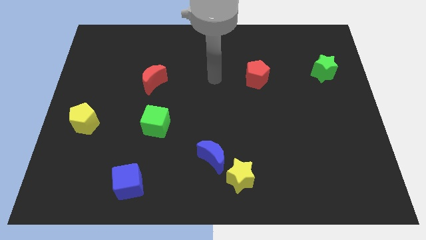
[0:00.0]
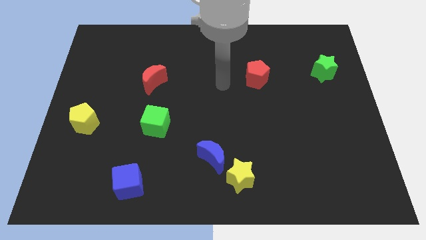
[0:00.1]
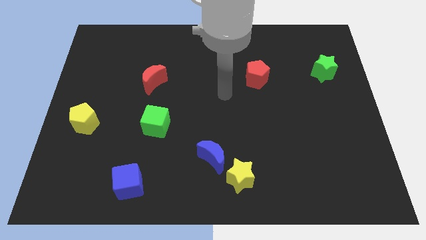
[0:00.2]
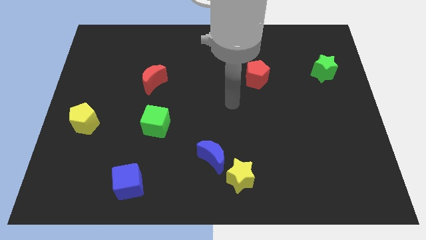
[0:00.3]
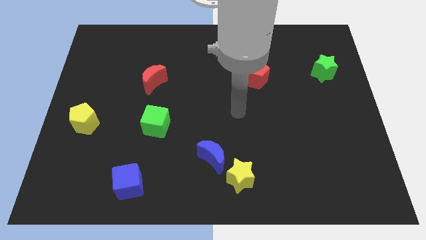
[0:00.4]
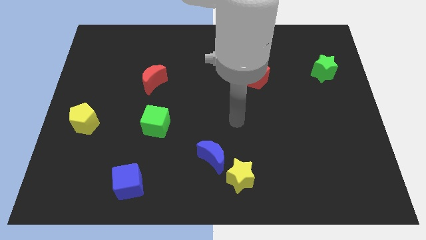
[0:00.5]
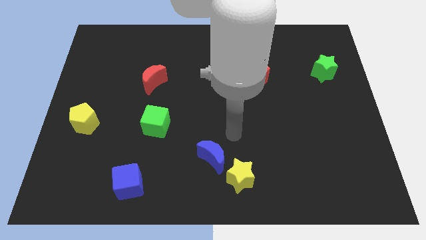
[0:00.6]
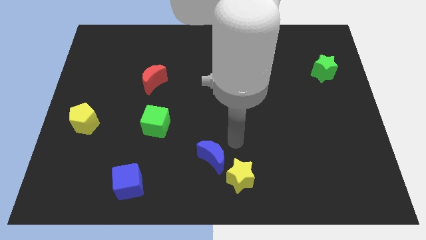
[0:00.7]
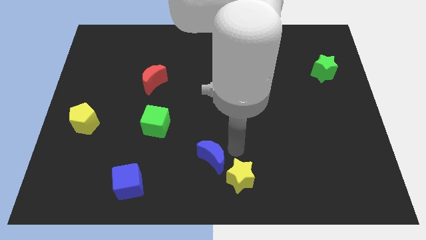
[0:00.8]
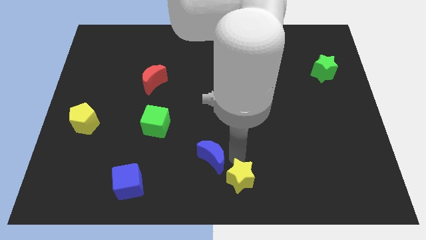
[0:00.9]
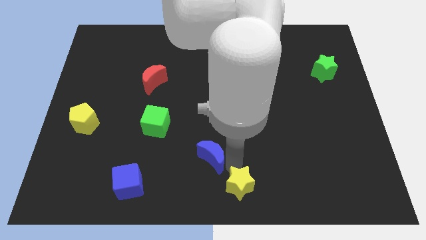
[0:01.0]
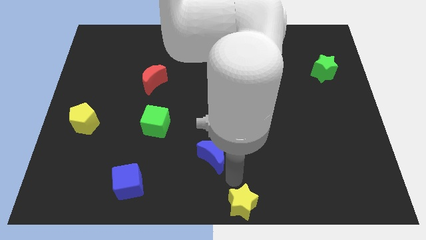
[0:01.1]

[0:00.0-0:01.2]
move the blue moon away from the yellow star

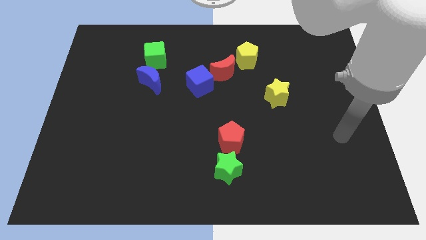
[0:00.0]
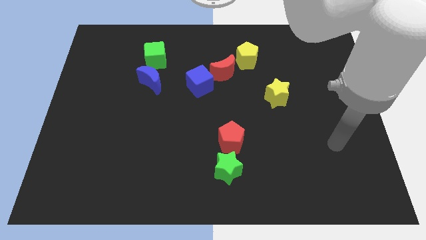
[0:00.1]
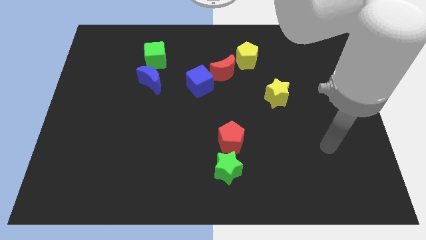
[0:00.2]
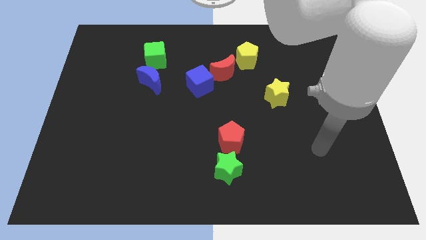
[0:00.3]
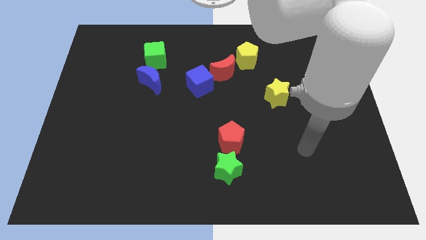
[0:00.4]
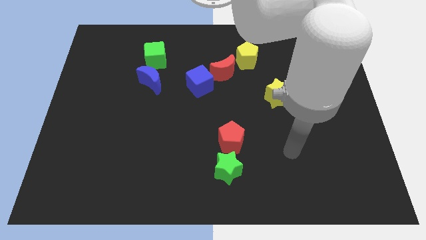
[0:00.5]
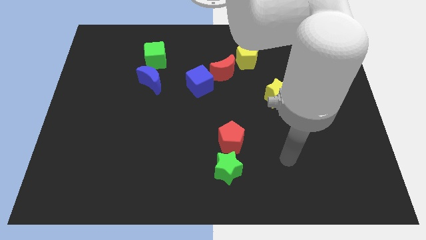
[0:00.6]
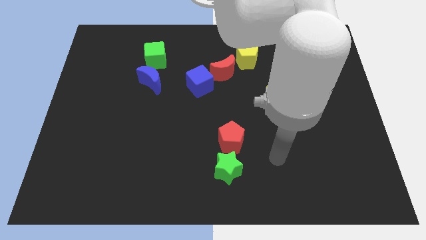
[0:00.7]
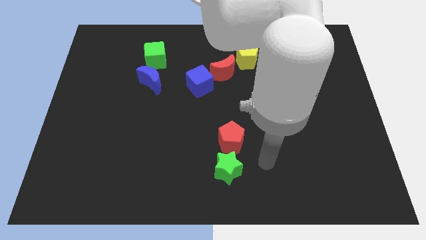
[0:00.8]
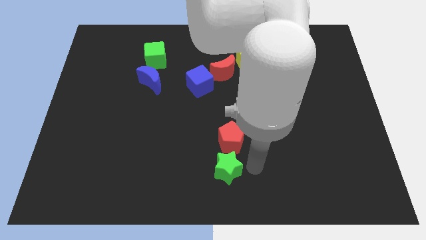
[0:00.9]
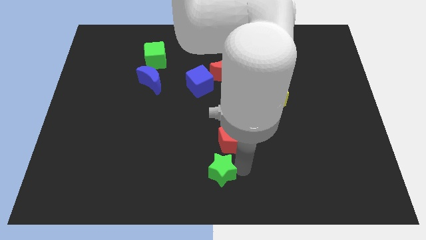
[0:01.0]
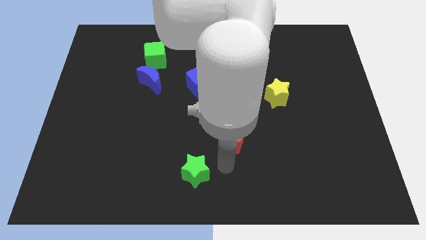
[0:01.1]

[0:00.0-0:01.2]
pull the red pentagon apart from the green star

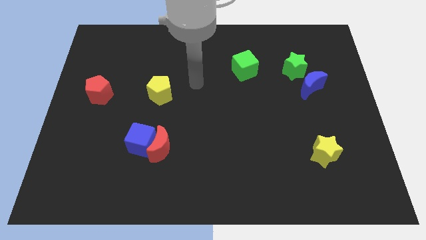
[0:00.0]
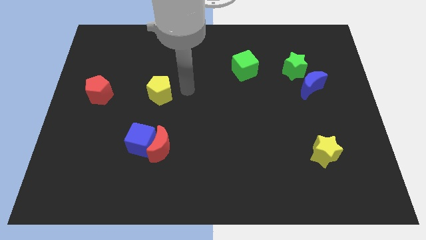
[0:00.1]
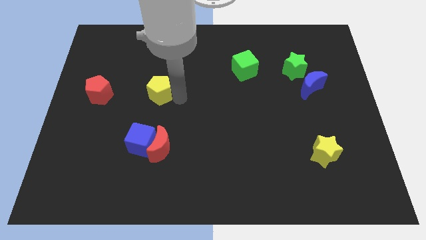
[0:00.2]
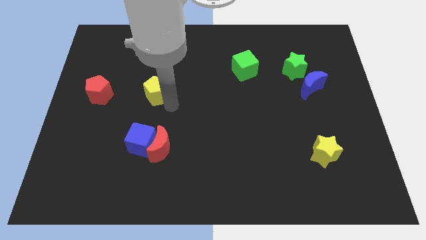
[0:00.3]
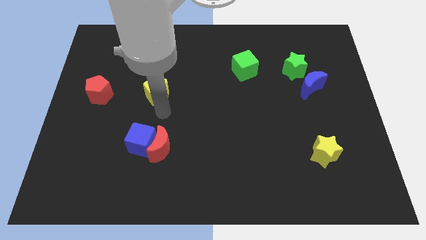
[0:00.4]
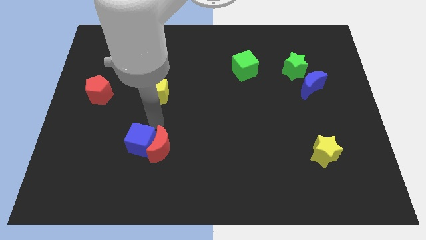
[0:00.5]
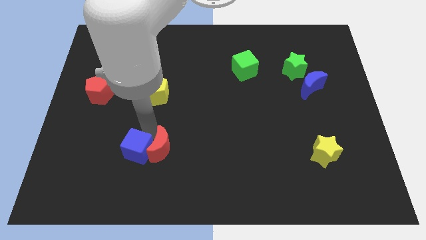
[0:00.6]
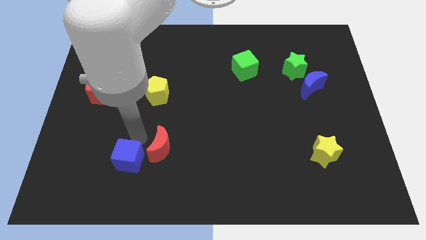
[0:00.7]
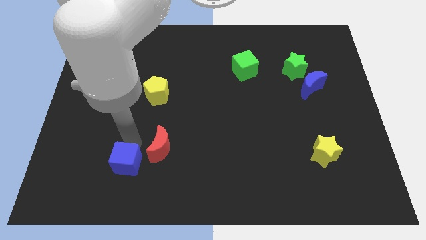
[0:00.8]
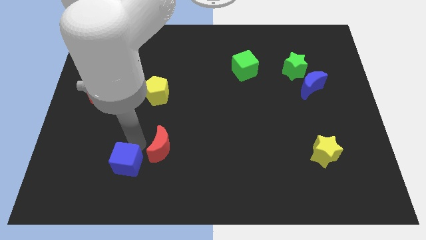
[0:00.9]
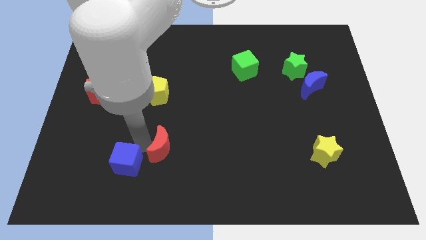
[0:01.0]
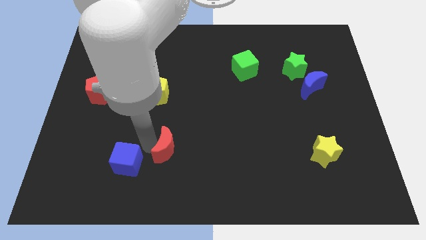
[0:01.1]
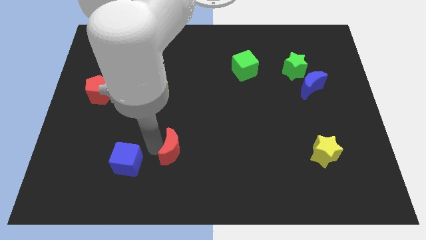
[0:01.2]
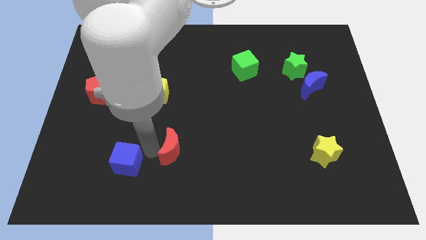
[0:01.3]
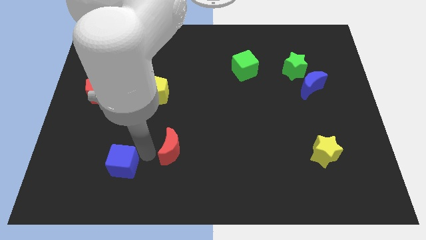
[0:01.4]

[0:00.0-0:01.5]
separate the red moon from the blue cube

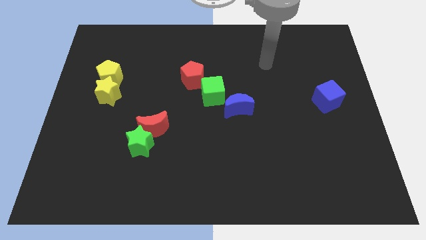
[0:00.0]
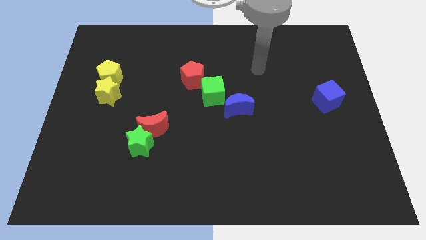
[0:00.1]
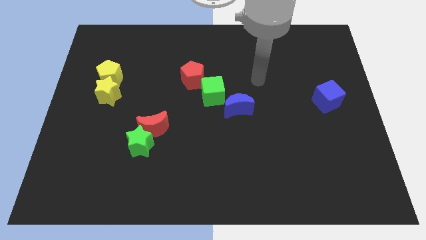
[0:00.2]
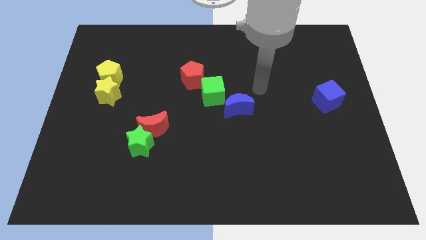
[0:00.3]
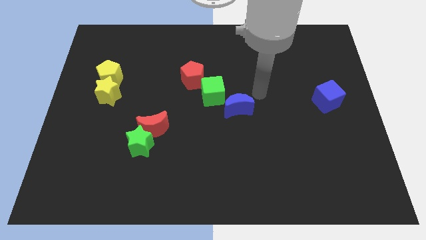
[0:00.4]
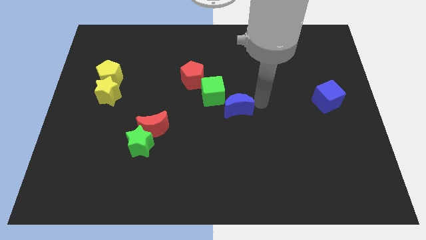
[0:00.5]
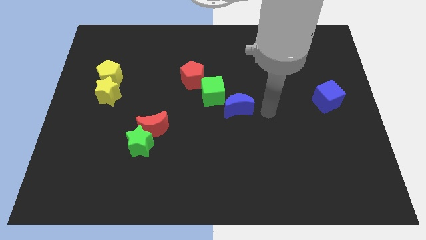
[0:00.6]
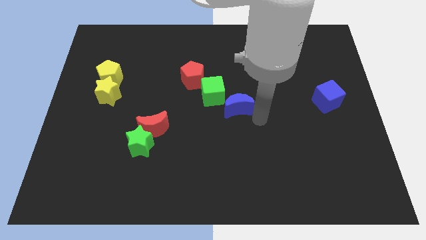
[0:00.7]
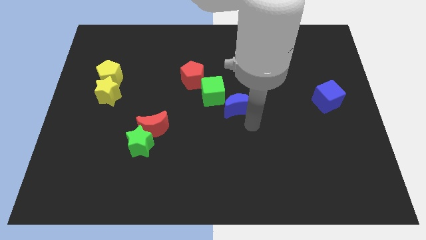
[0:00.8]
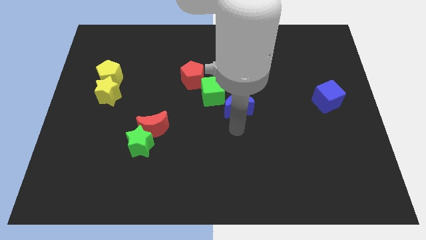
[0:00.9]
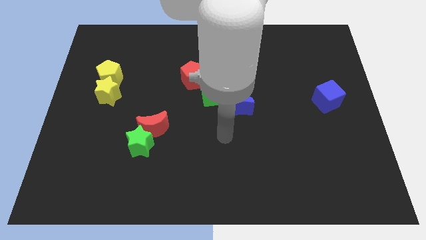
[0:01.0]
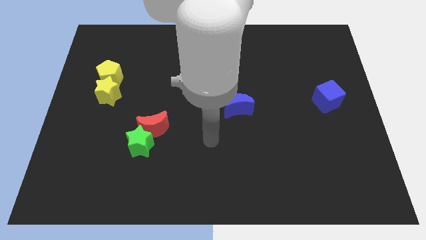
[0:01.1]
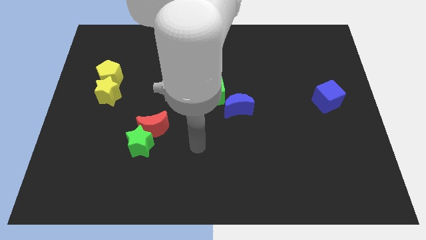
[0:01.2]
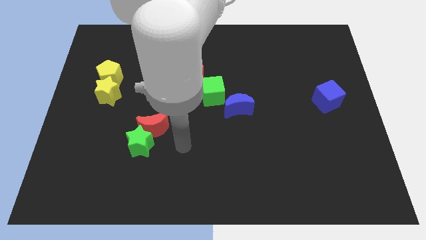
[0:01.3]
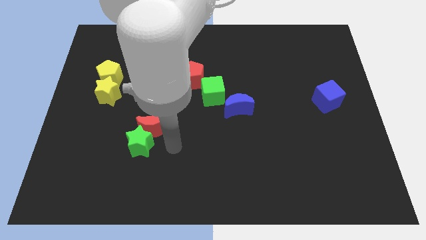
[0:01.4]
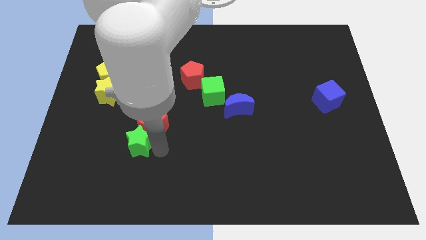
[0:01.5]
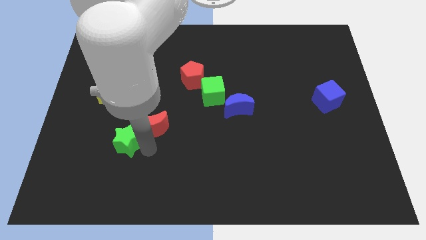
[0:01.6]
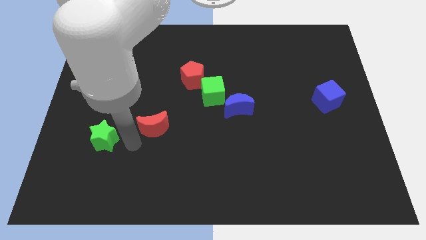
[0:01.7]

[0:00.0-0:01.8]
pull the red moon apart from the green star

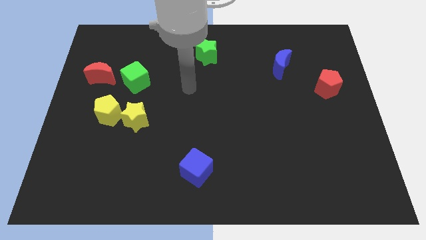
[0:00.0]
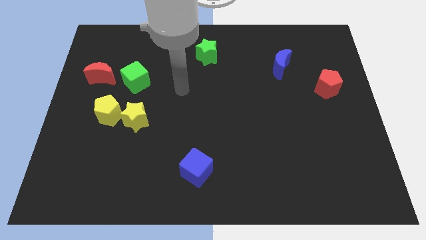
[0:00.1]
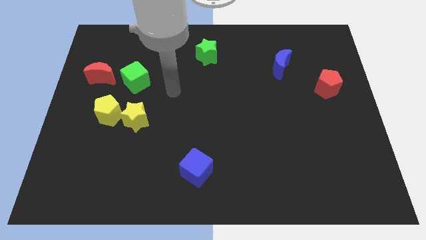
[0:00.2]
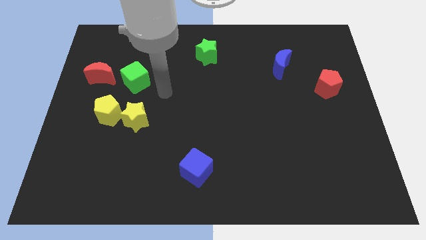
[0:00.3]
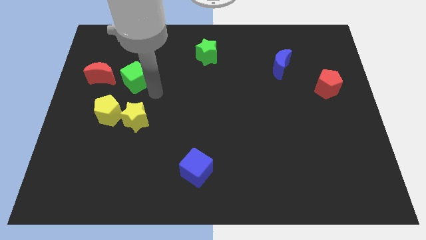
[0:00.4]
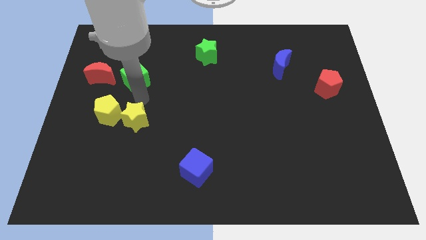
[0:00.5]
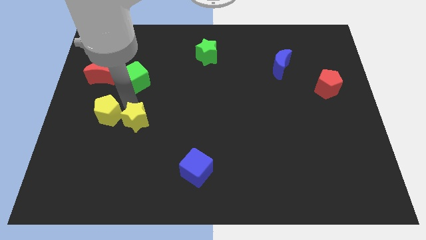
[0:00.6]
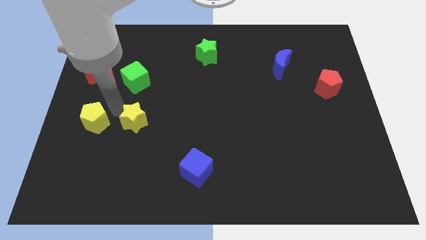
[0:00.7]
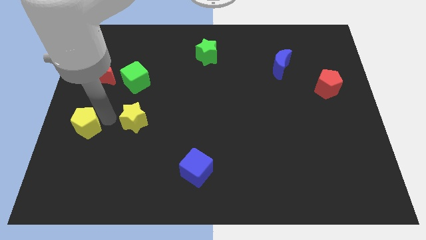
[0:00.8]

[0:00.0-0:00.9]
move the yellow star away from the yellow pentagon

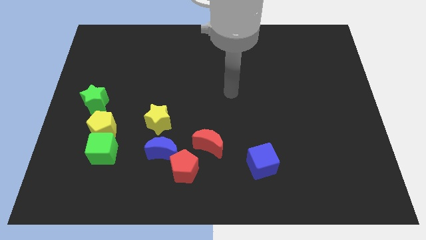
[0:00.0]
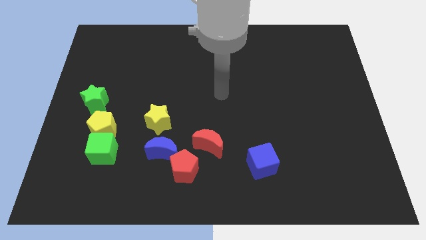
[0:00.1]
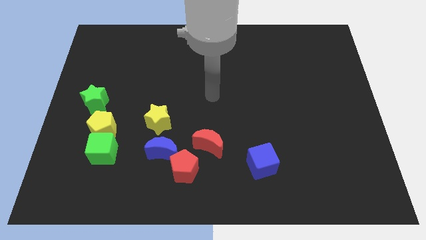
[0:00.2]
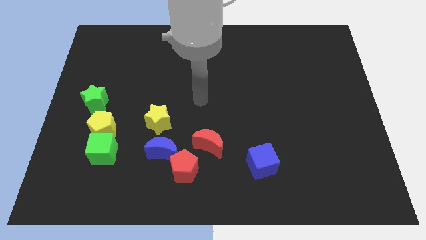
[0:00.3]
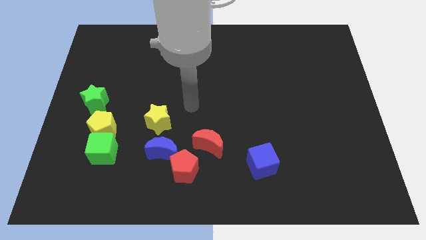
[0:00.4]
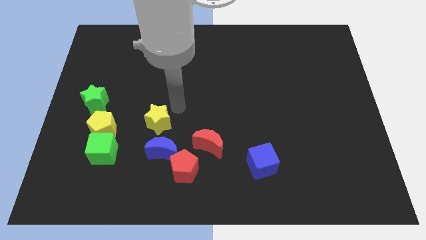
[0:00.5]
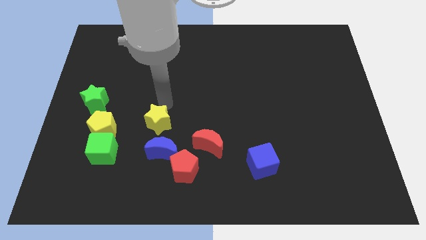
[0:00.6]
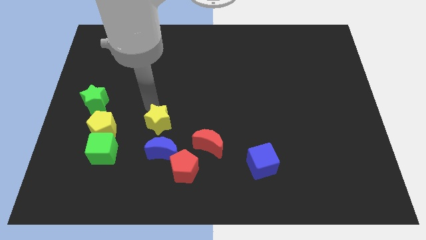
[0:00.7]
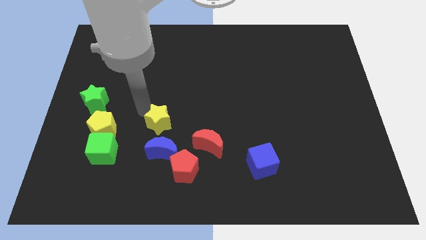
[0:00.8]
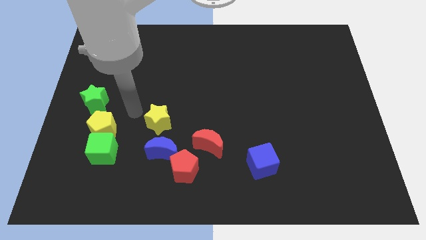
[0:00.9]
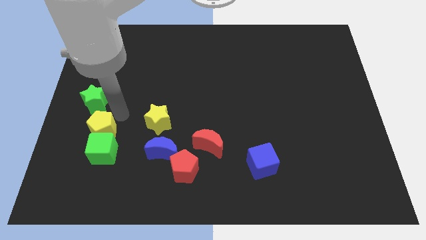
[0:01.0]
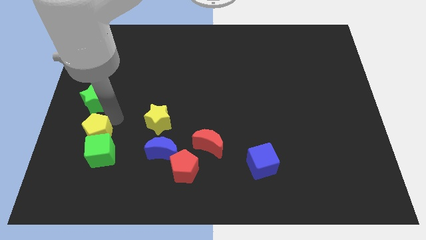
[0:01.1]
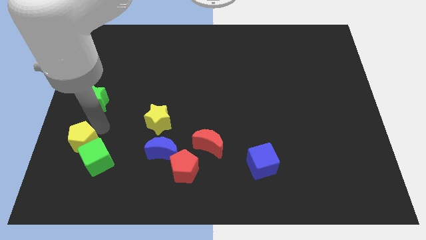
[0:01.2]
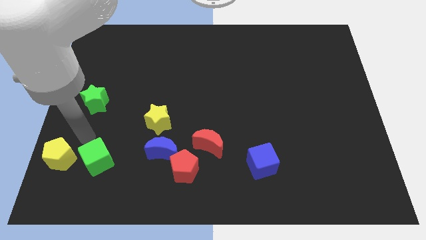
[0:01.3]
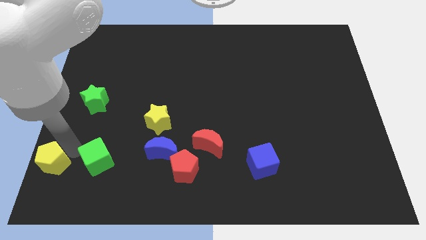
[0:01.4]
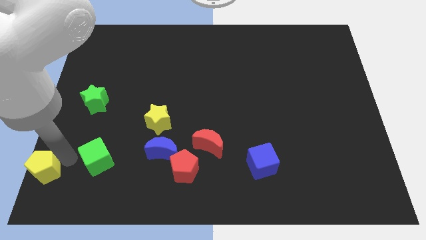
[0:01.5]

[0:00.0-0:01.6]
move the green cube away from the yellow pentagon

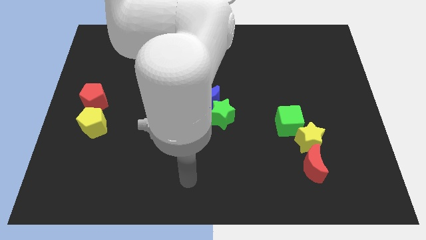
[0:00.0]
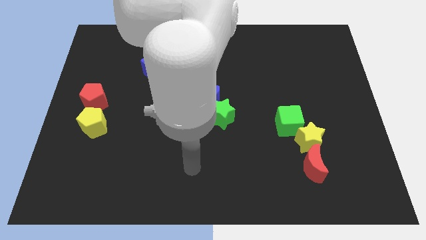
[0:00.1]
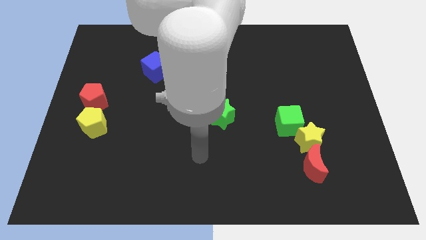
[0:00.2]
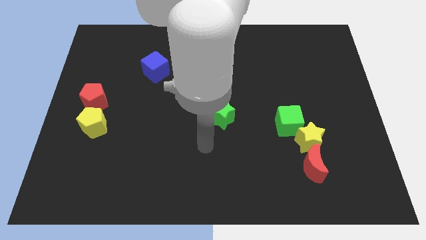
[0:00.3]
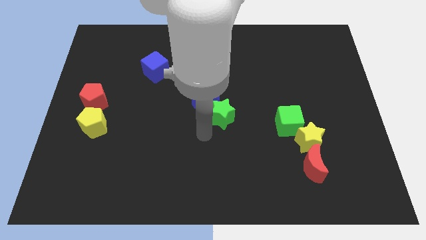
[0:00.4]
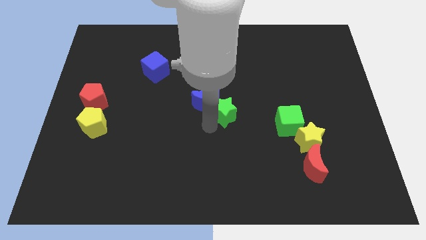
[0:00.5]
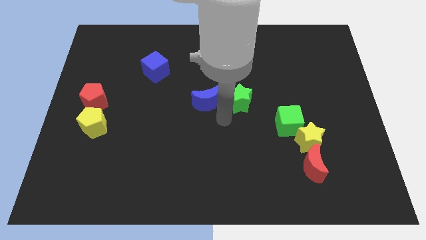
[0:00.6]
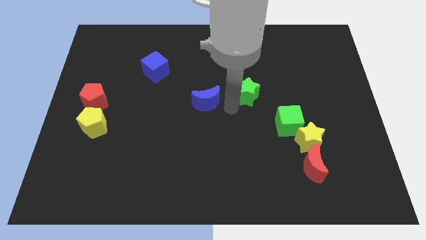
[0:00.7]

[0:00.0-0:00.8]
move the blue moon away from the green star

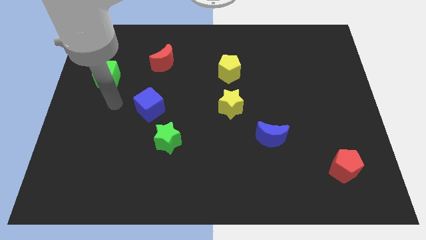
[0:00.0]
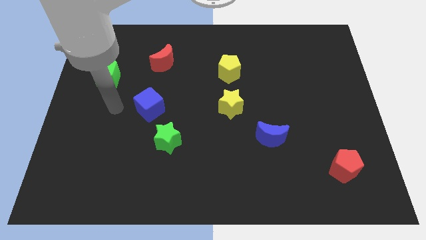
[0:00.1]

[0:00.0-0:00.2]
move the blue cube away from the green star
